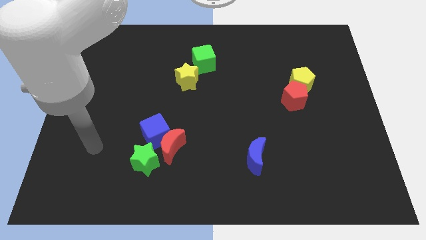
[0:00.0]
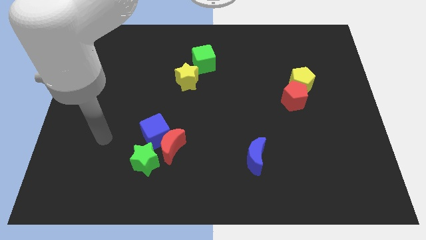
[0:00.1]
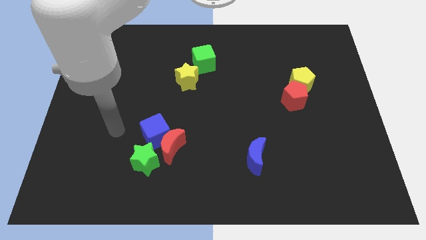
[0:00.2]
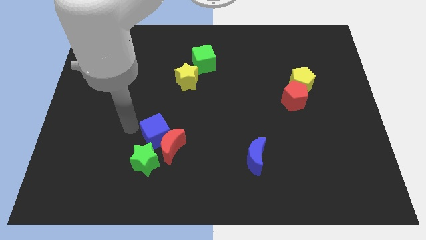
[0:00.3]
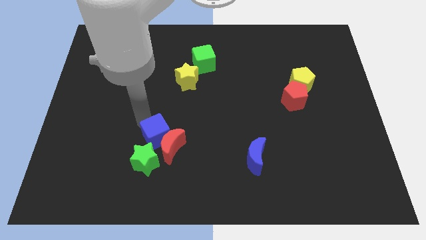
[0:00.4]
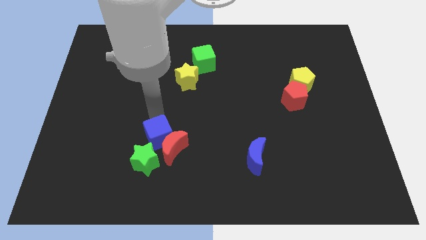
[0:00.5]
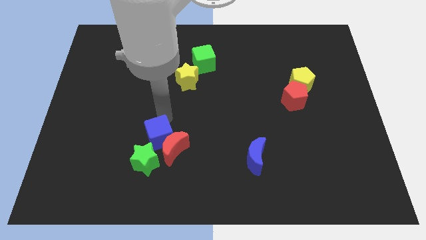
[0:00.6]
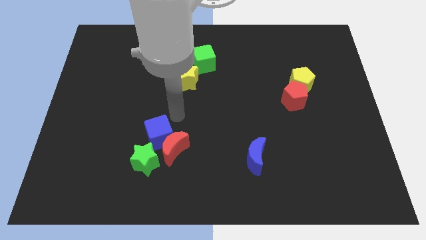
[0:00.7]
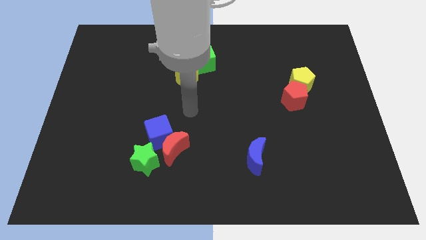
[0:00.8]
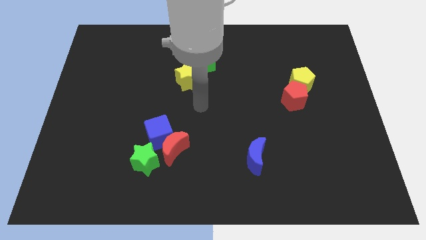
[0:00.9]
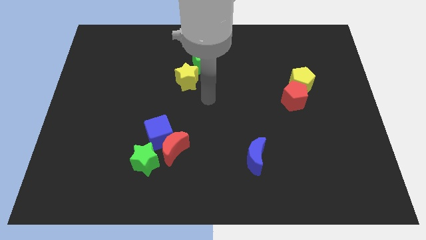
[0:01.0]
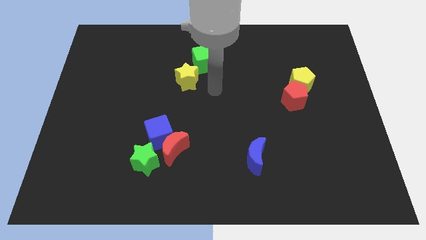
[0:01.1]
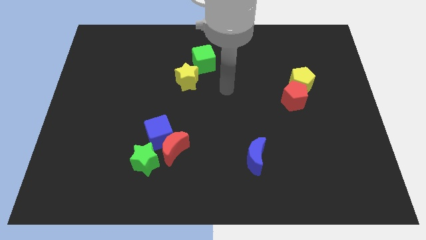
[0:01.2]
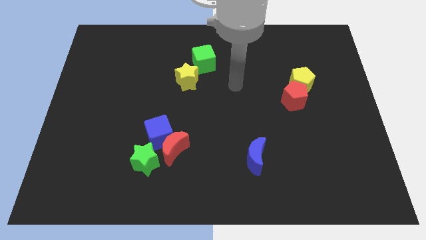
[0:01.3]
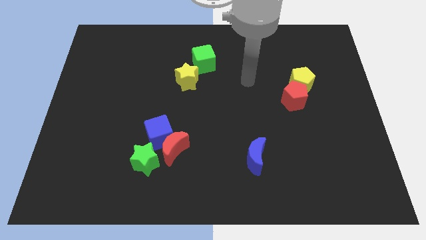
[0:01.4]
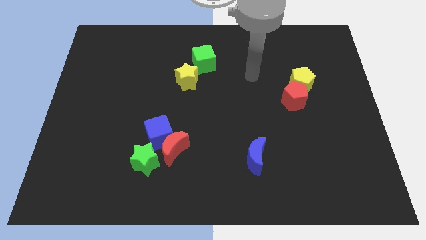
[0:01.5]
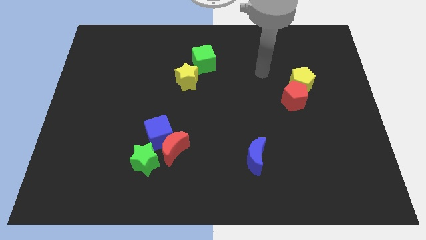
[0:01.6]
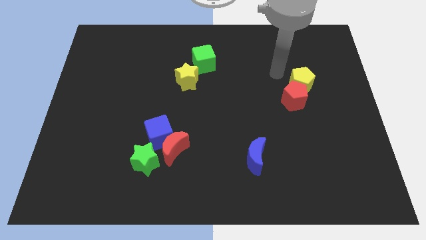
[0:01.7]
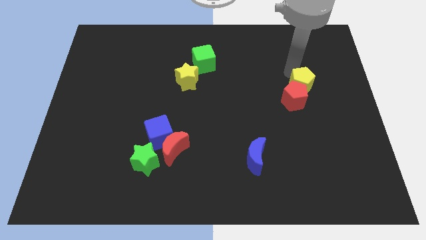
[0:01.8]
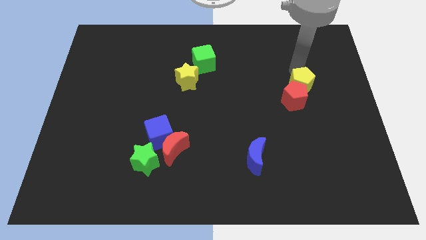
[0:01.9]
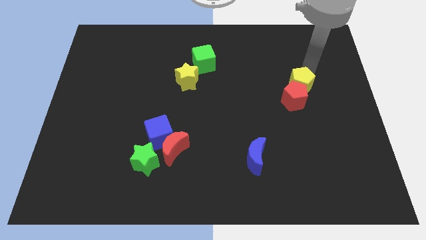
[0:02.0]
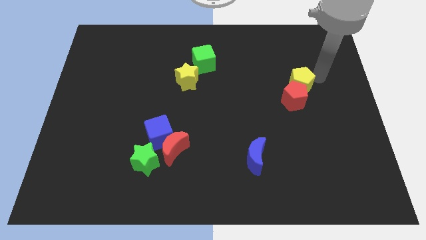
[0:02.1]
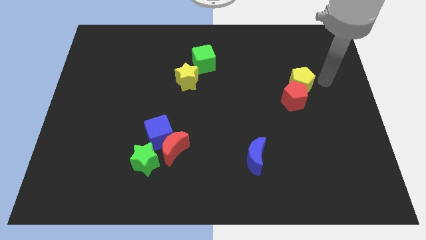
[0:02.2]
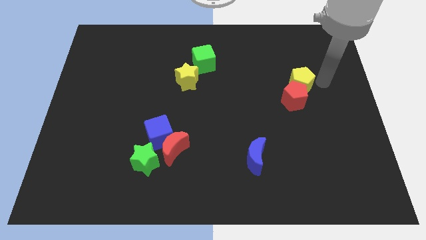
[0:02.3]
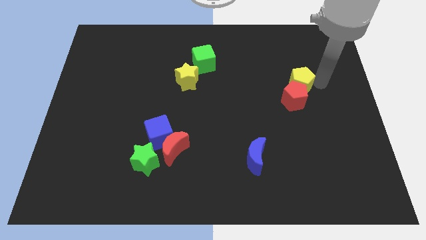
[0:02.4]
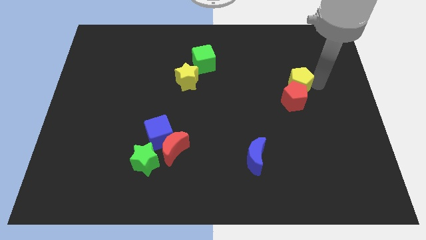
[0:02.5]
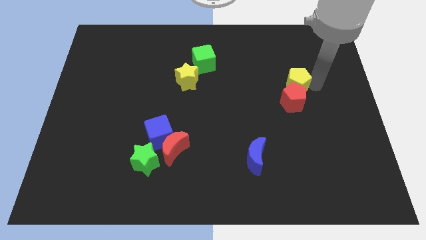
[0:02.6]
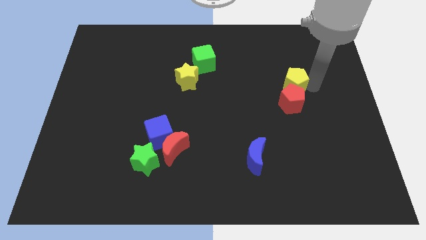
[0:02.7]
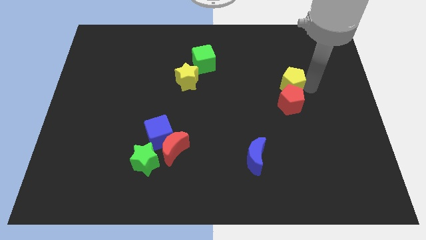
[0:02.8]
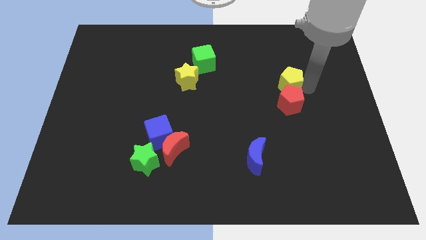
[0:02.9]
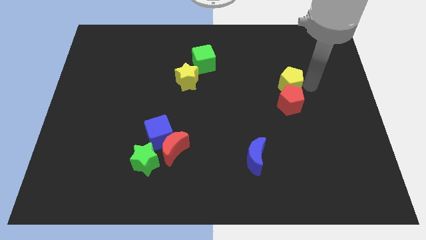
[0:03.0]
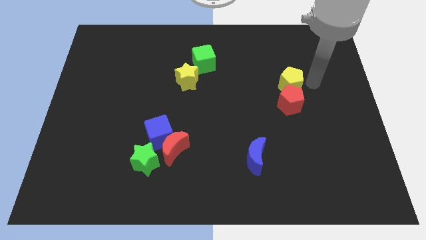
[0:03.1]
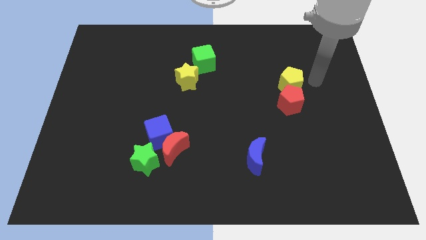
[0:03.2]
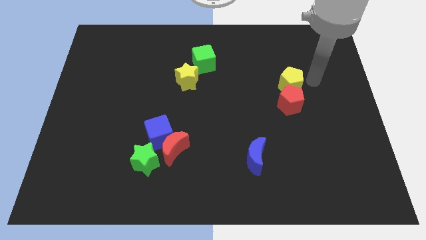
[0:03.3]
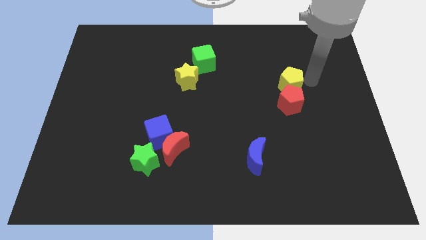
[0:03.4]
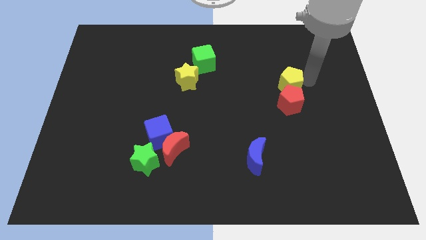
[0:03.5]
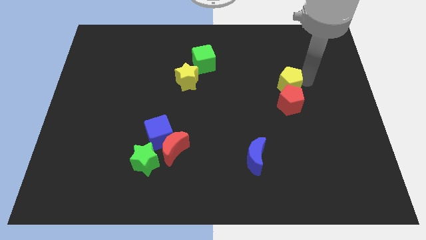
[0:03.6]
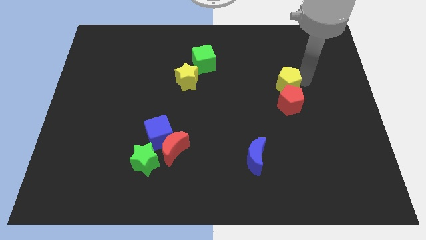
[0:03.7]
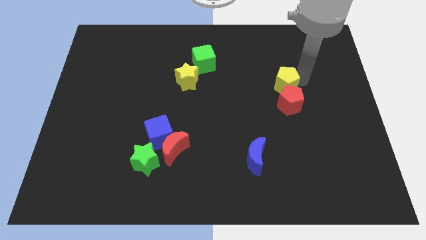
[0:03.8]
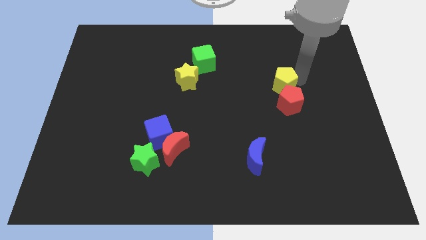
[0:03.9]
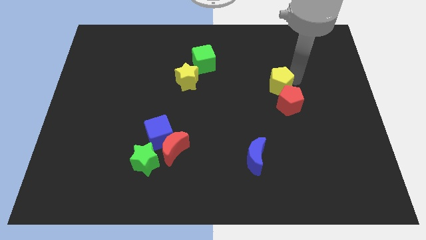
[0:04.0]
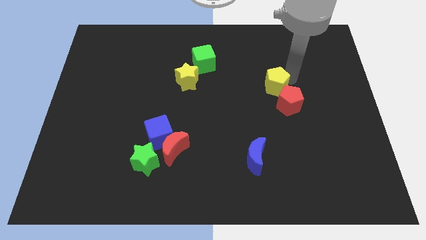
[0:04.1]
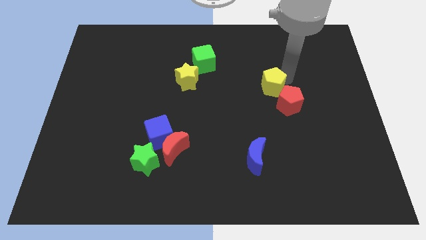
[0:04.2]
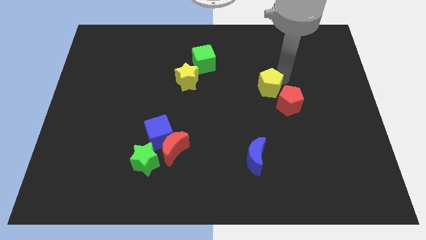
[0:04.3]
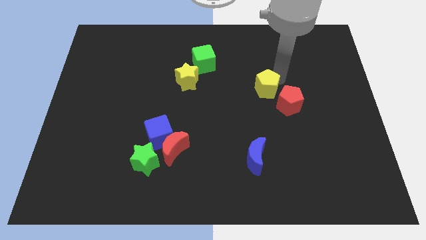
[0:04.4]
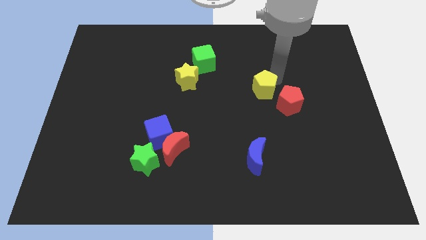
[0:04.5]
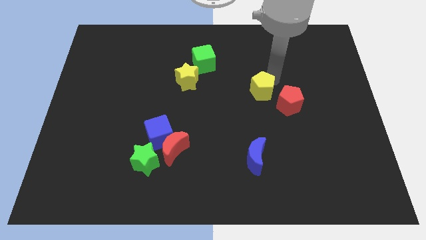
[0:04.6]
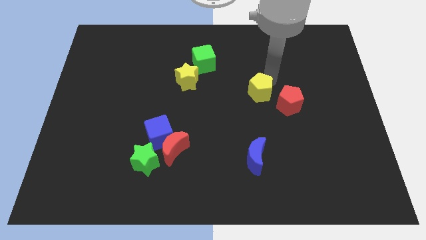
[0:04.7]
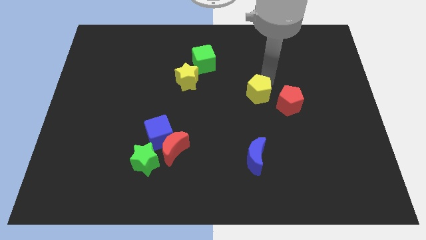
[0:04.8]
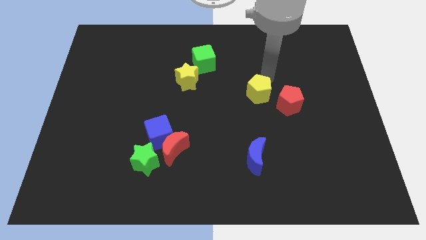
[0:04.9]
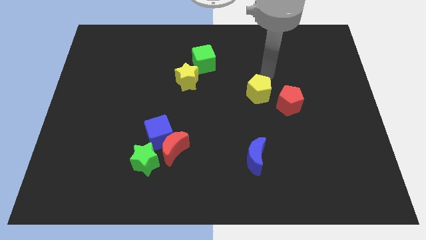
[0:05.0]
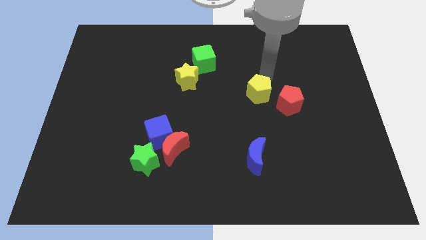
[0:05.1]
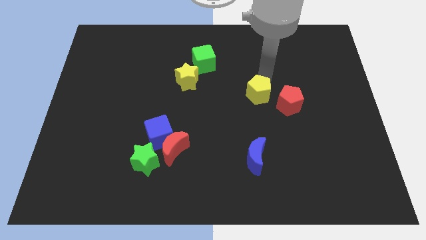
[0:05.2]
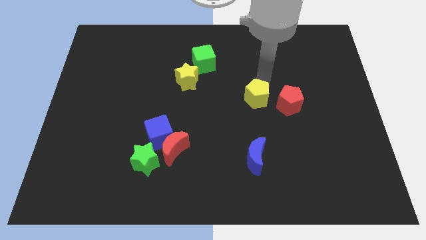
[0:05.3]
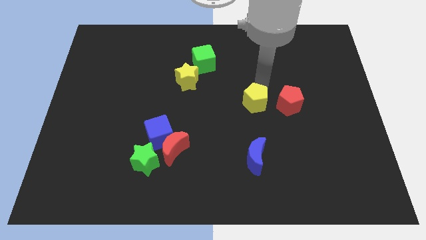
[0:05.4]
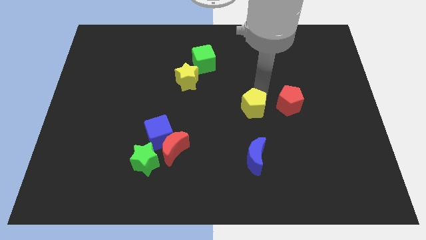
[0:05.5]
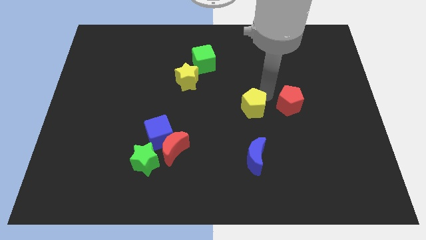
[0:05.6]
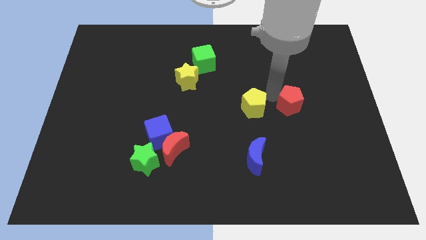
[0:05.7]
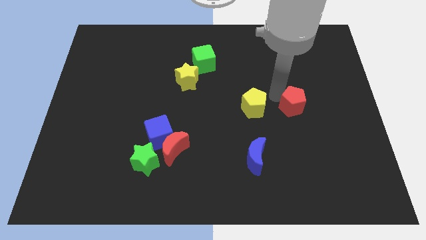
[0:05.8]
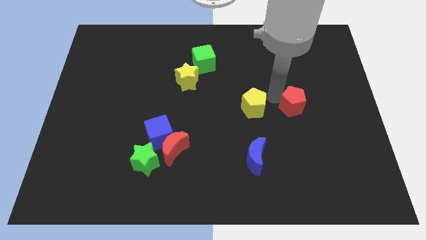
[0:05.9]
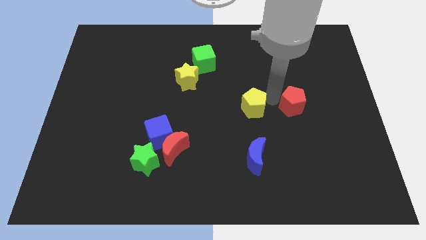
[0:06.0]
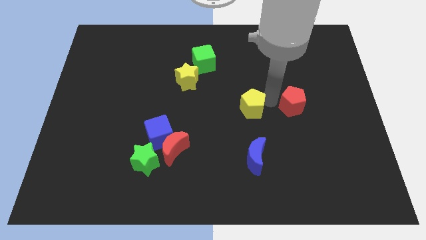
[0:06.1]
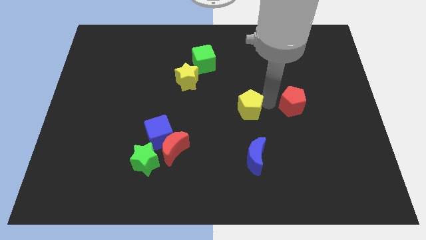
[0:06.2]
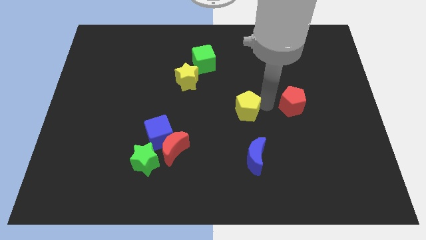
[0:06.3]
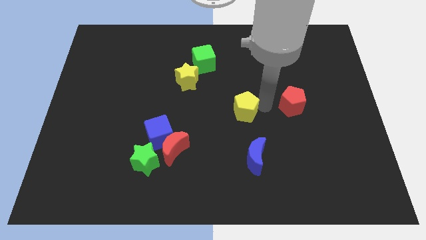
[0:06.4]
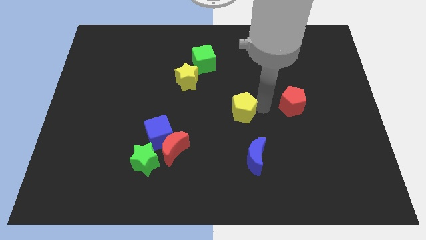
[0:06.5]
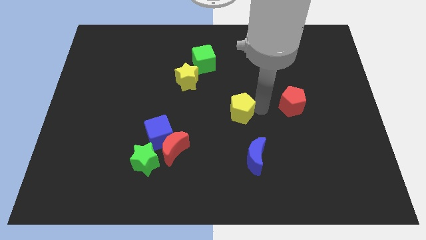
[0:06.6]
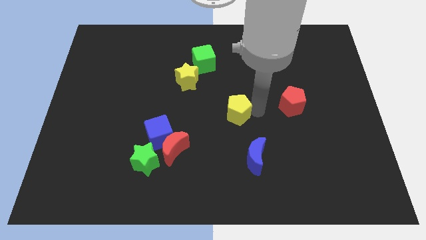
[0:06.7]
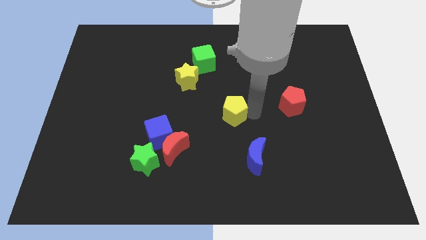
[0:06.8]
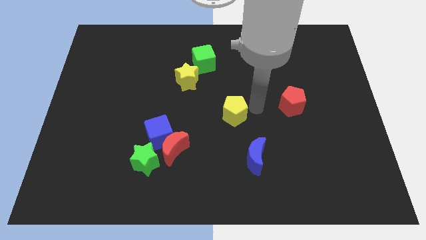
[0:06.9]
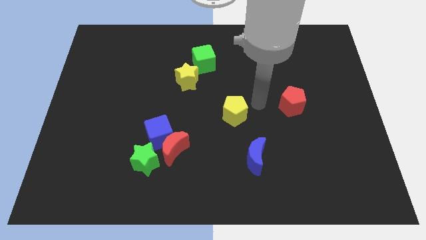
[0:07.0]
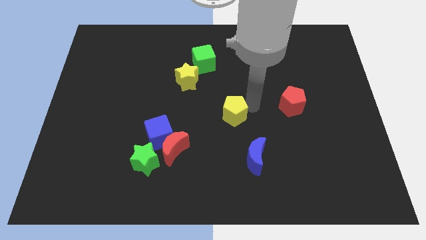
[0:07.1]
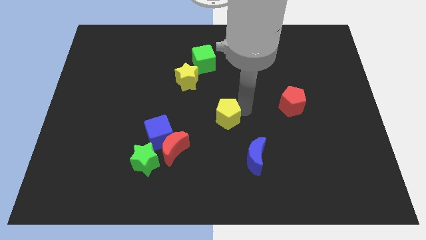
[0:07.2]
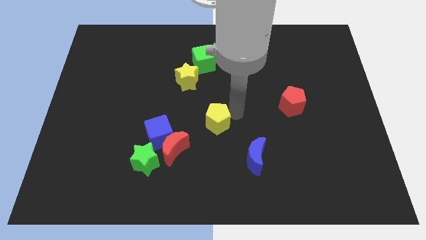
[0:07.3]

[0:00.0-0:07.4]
put the yellow pentagon to the top right of the red moon
